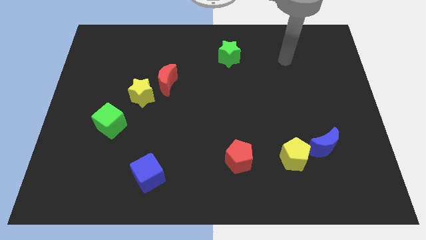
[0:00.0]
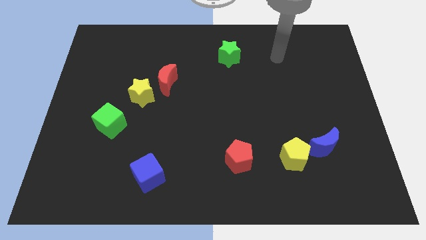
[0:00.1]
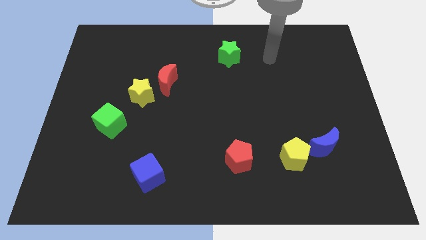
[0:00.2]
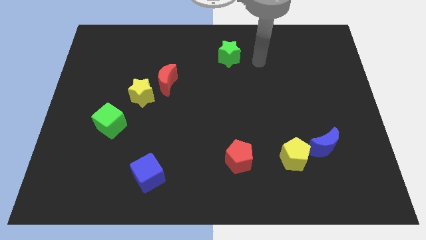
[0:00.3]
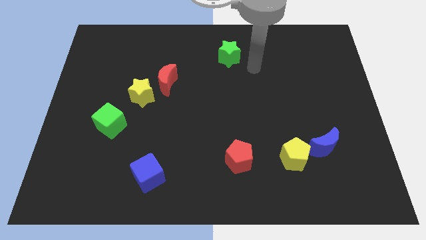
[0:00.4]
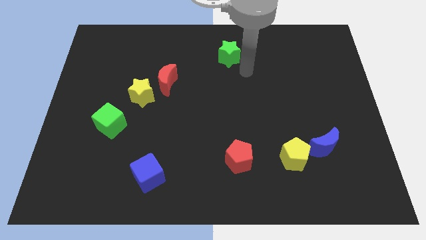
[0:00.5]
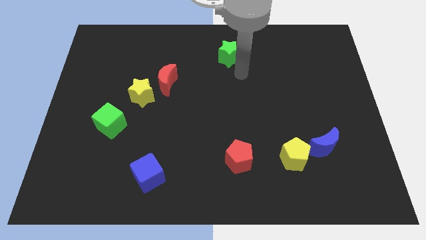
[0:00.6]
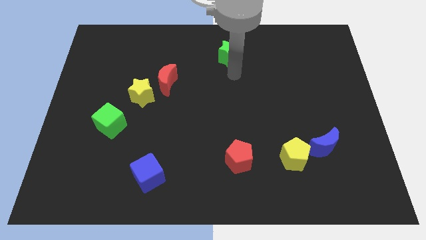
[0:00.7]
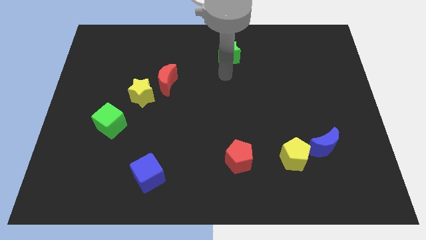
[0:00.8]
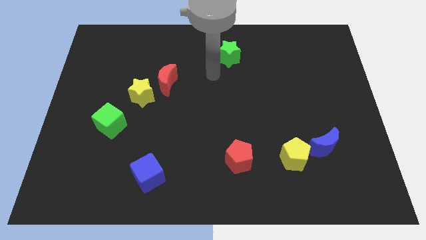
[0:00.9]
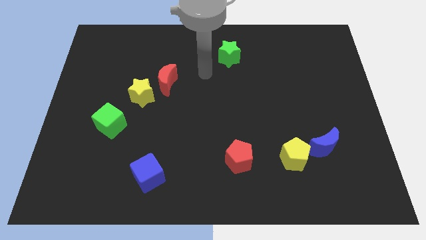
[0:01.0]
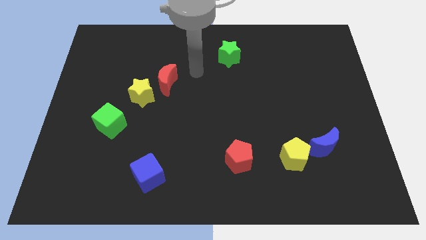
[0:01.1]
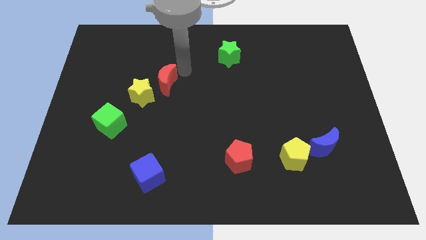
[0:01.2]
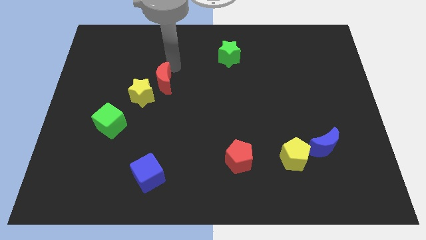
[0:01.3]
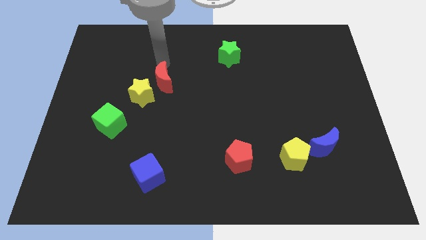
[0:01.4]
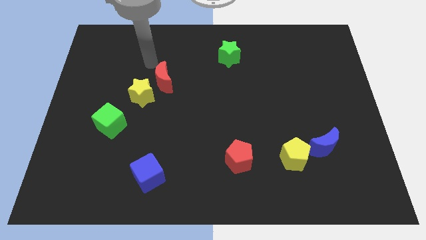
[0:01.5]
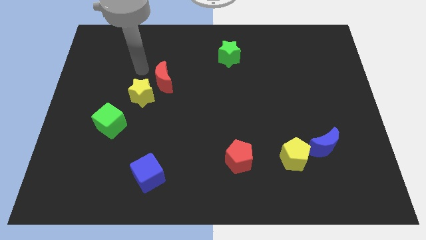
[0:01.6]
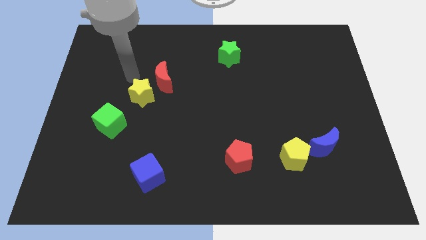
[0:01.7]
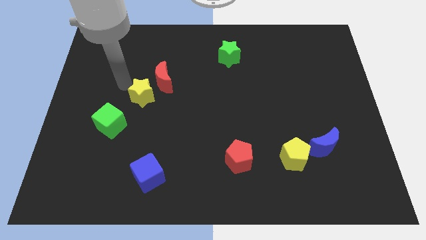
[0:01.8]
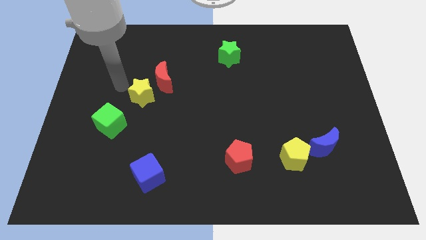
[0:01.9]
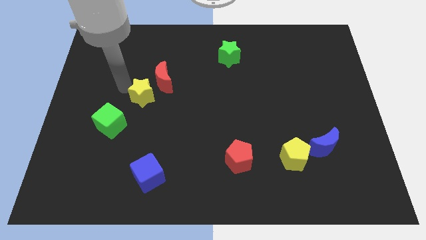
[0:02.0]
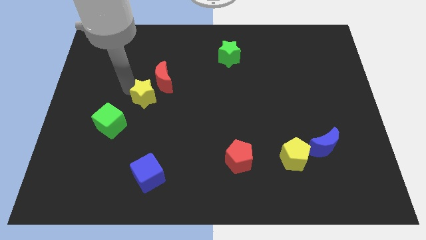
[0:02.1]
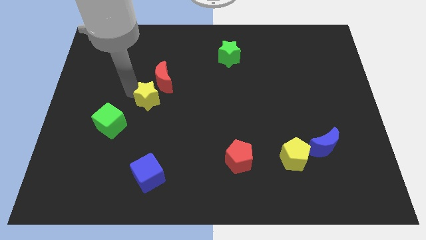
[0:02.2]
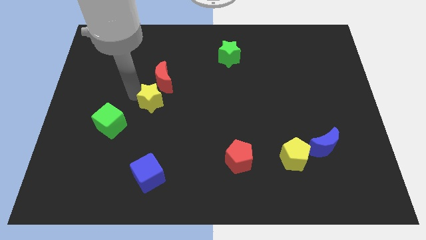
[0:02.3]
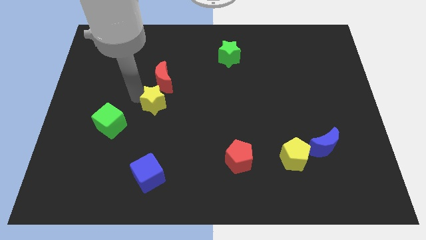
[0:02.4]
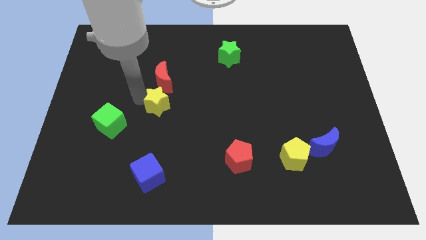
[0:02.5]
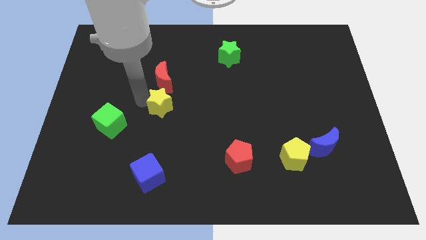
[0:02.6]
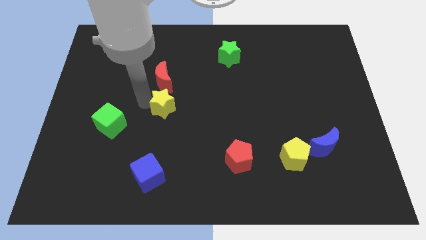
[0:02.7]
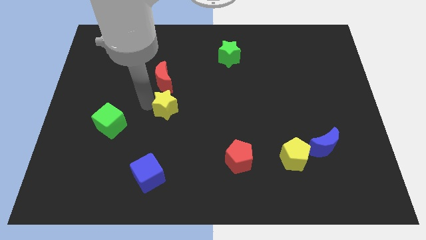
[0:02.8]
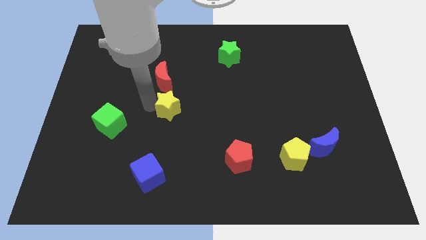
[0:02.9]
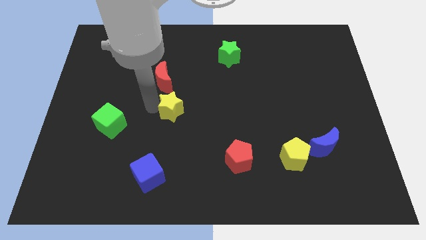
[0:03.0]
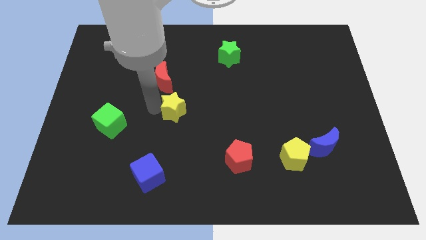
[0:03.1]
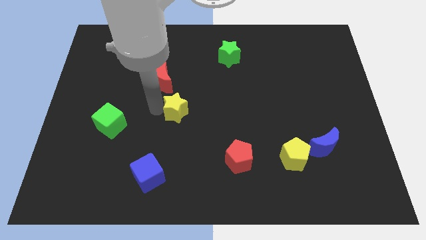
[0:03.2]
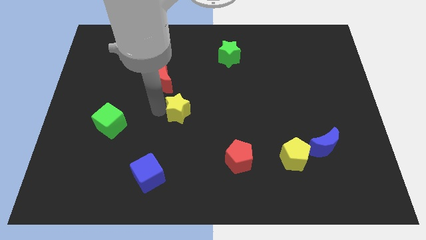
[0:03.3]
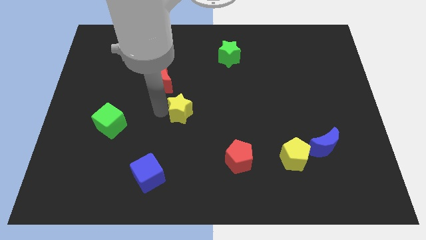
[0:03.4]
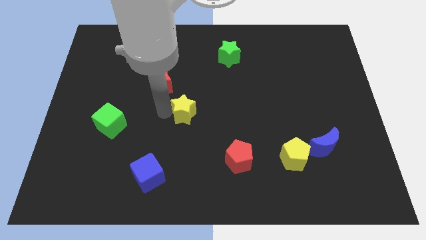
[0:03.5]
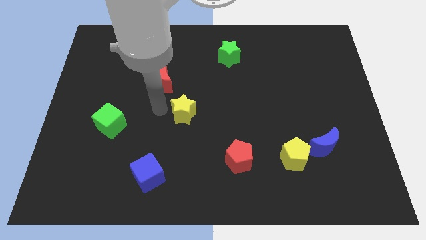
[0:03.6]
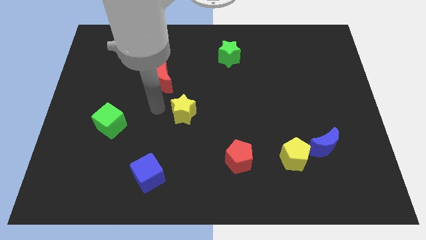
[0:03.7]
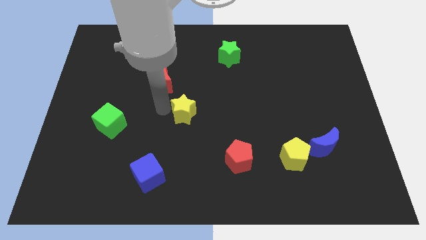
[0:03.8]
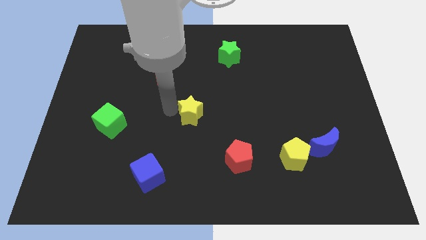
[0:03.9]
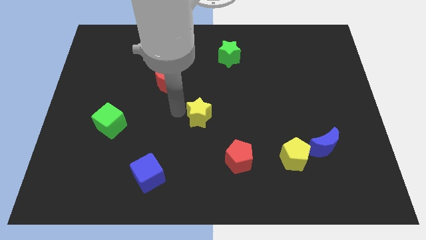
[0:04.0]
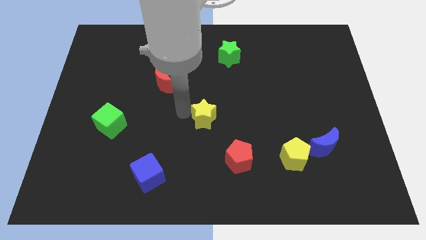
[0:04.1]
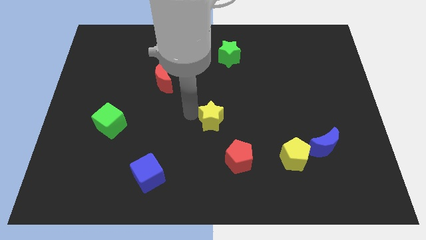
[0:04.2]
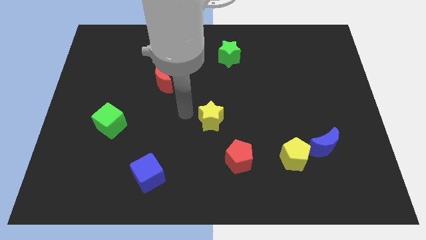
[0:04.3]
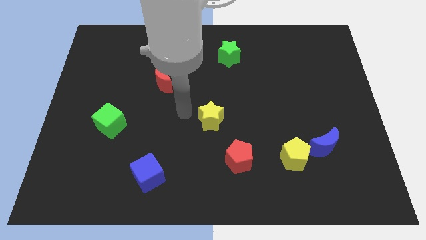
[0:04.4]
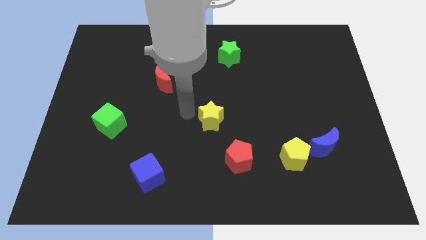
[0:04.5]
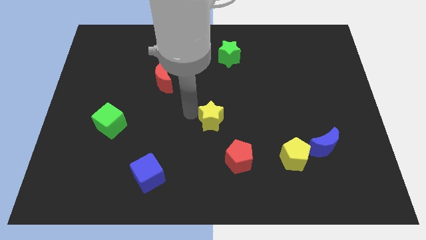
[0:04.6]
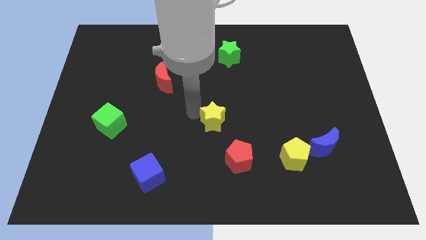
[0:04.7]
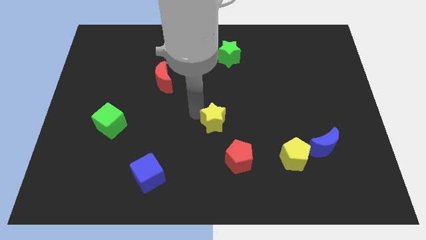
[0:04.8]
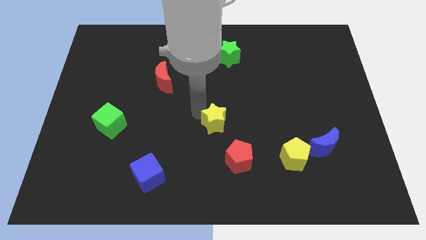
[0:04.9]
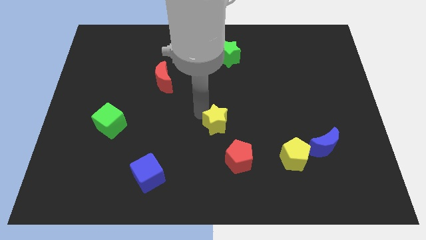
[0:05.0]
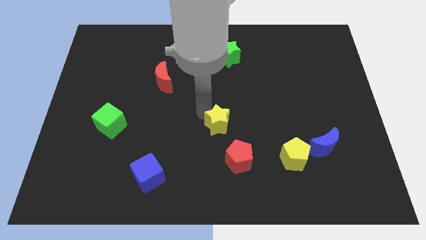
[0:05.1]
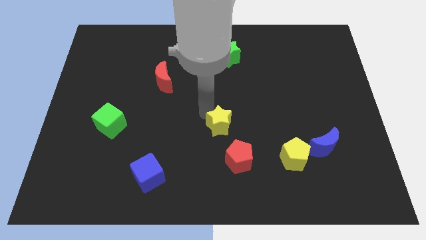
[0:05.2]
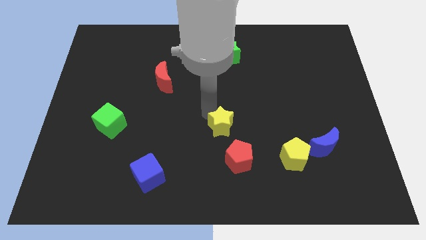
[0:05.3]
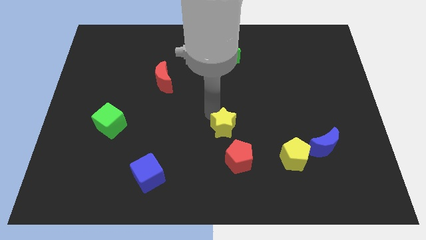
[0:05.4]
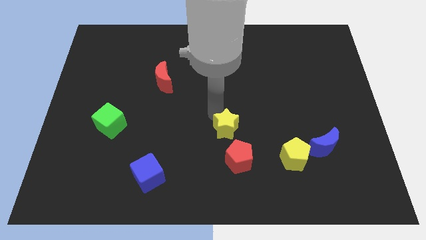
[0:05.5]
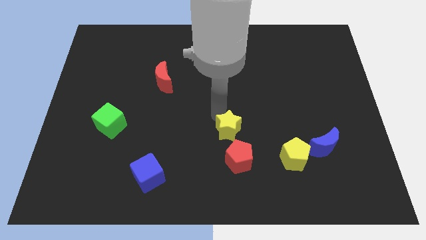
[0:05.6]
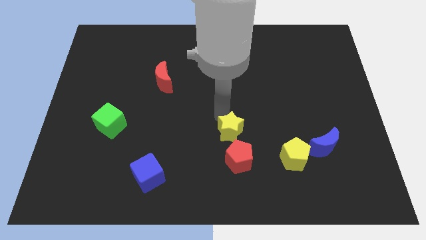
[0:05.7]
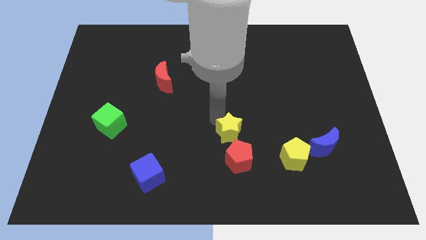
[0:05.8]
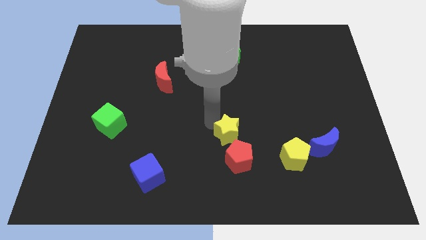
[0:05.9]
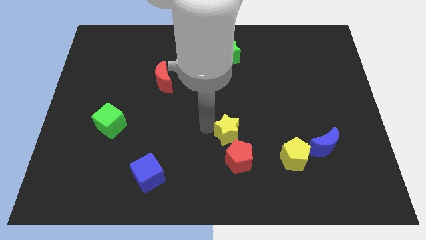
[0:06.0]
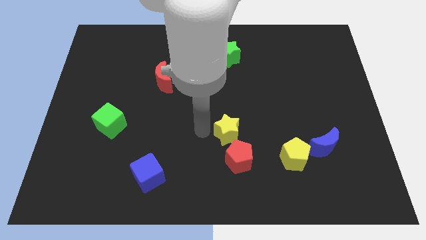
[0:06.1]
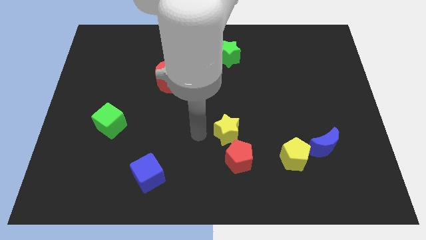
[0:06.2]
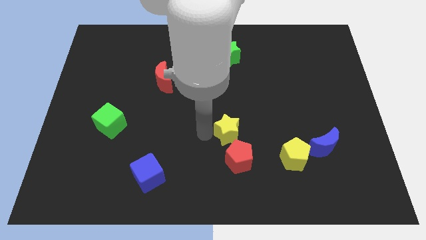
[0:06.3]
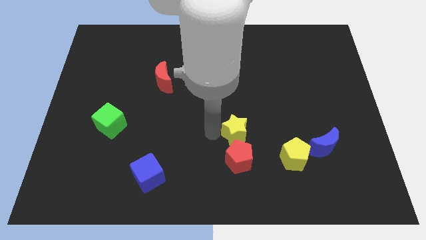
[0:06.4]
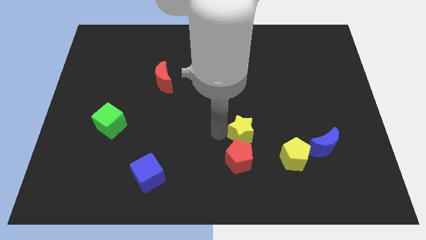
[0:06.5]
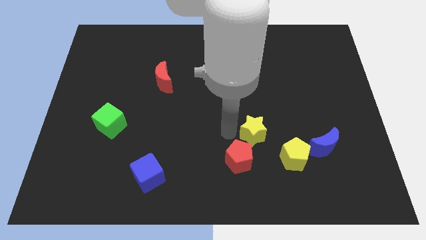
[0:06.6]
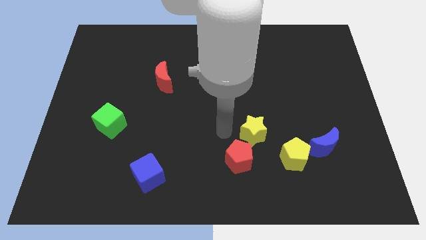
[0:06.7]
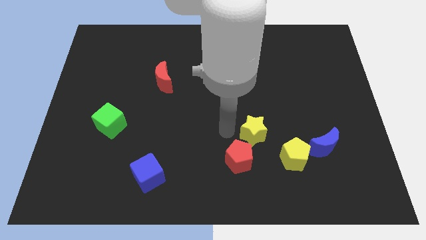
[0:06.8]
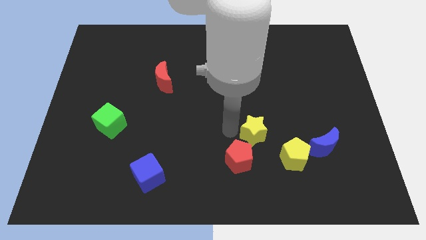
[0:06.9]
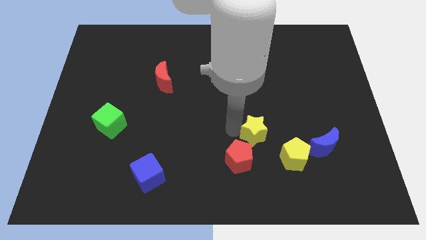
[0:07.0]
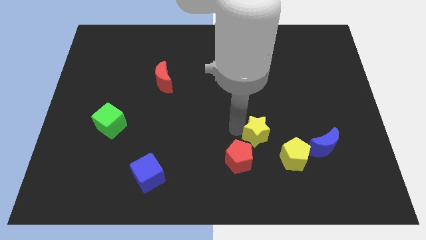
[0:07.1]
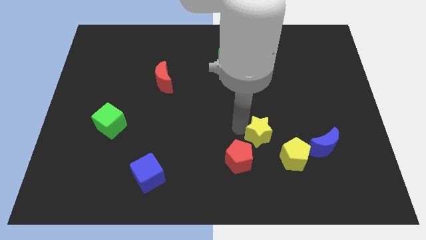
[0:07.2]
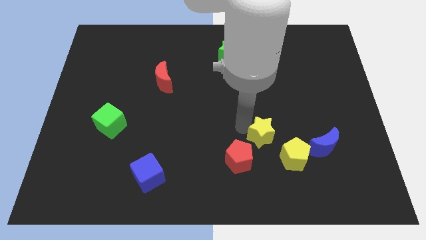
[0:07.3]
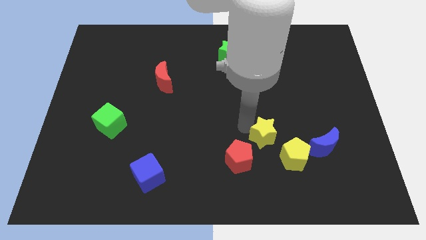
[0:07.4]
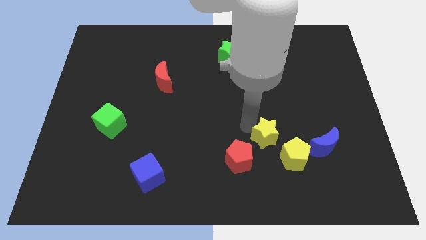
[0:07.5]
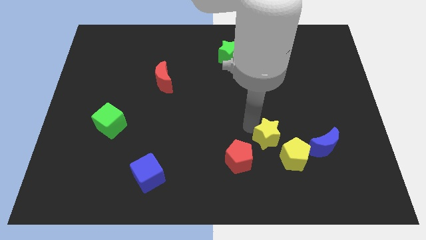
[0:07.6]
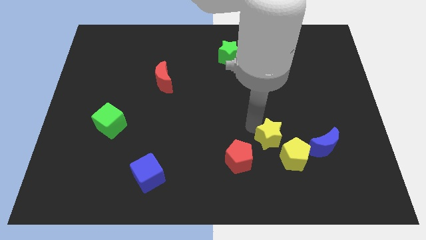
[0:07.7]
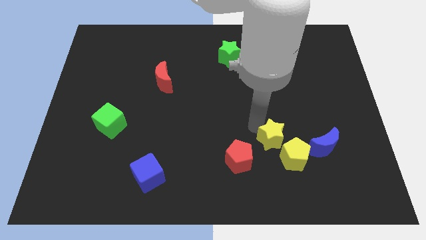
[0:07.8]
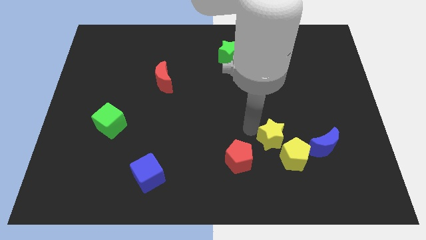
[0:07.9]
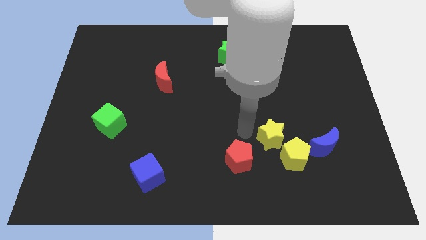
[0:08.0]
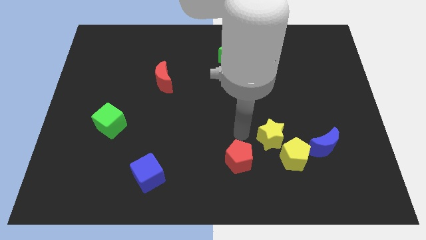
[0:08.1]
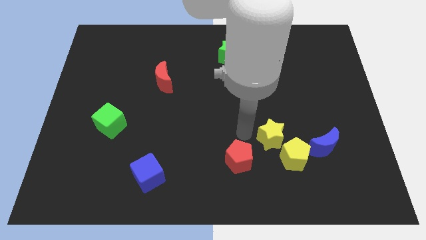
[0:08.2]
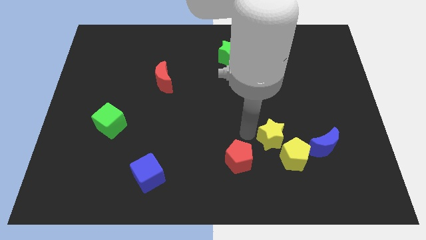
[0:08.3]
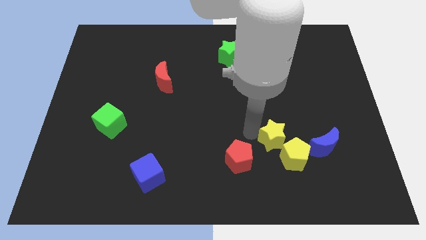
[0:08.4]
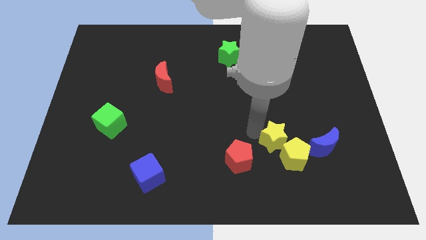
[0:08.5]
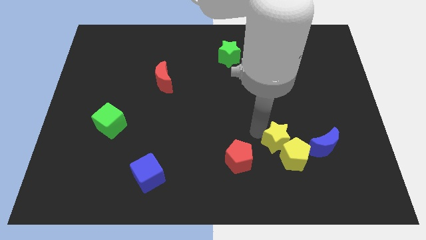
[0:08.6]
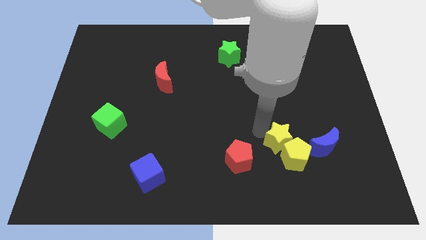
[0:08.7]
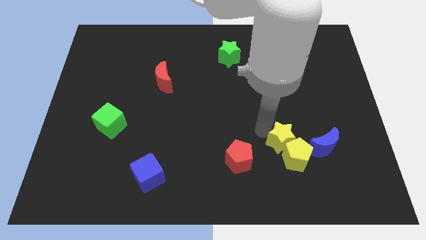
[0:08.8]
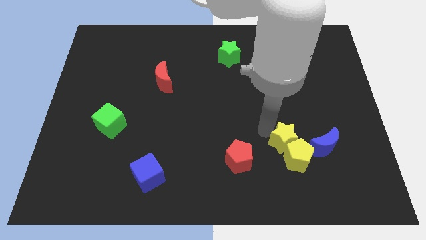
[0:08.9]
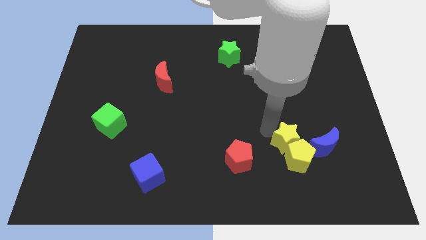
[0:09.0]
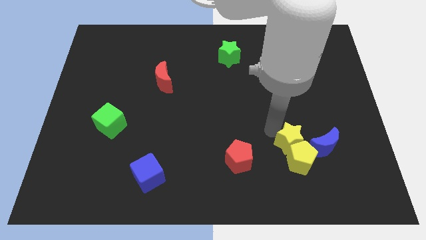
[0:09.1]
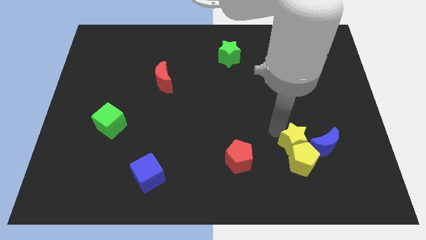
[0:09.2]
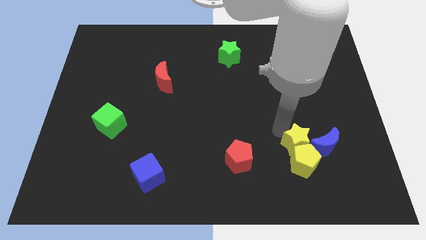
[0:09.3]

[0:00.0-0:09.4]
slide the yellow star to the blue moon
